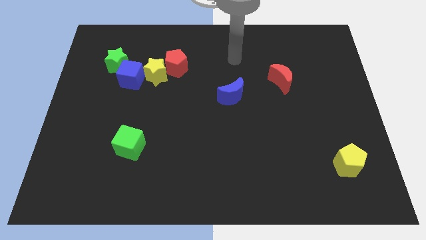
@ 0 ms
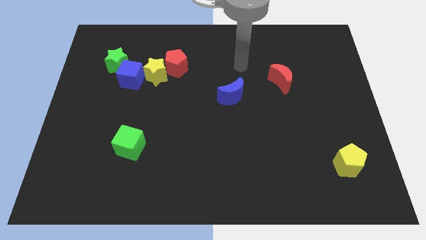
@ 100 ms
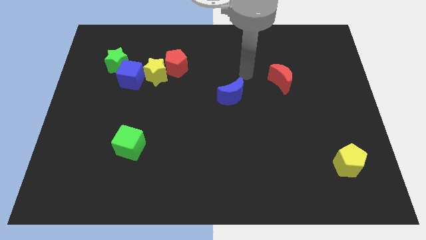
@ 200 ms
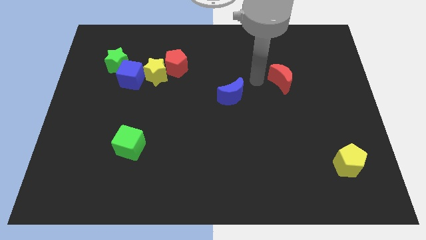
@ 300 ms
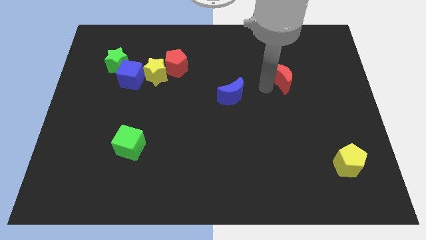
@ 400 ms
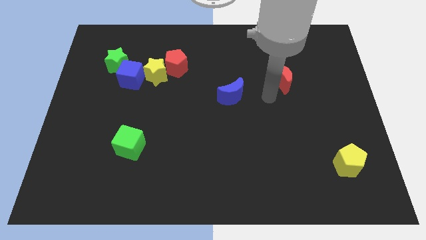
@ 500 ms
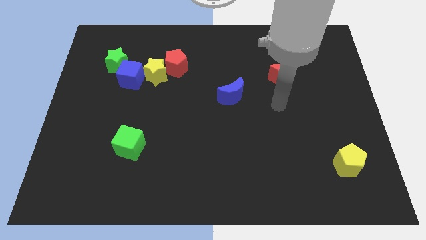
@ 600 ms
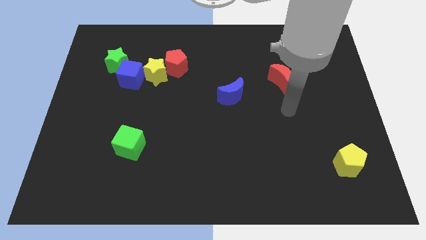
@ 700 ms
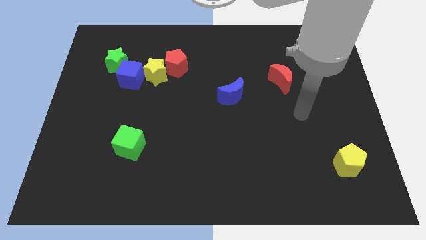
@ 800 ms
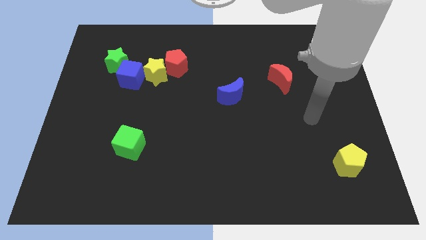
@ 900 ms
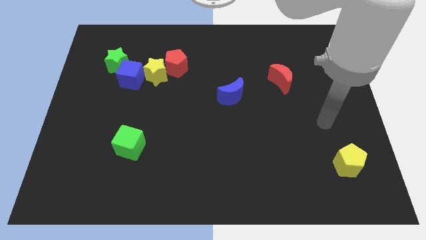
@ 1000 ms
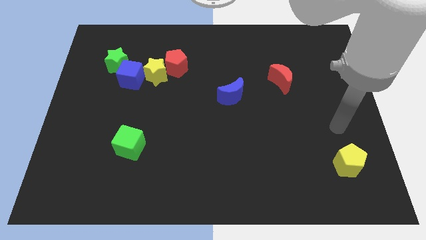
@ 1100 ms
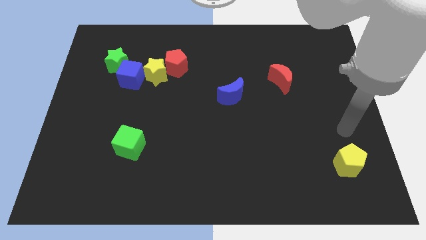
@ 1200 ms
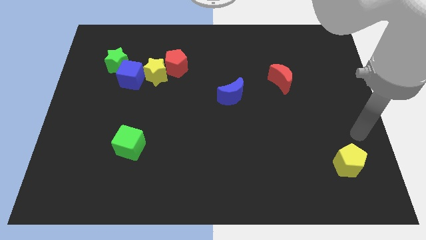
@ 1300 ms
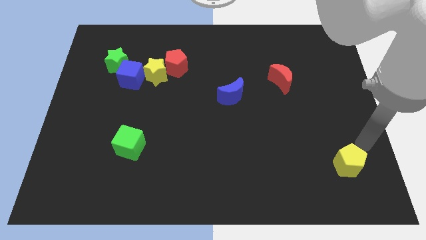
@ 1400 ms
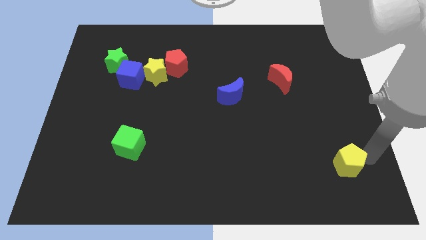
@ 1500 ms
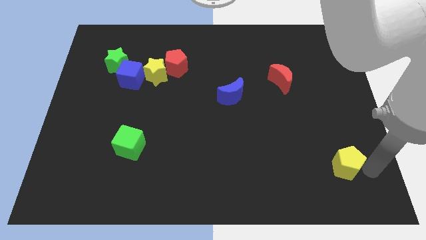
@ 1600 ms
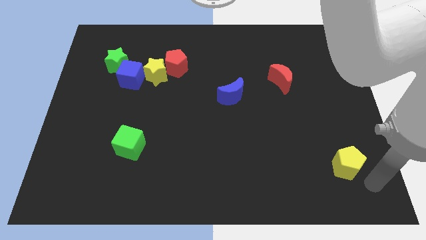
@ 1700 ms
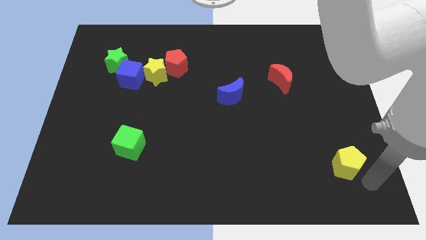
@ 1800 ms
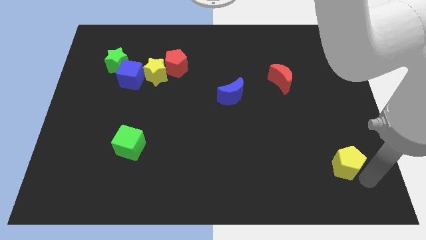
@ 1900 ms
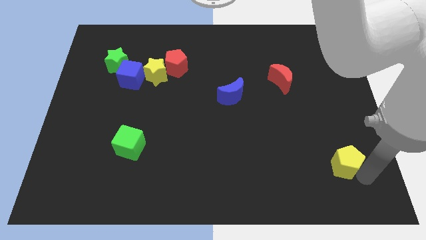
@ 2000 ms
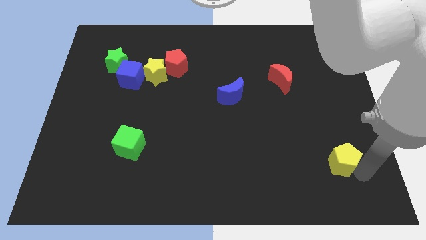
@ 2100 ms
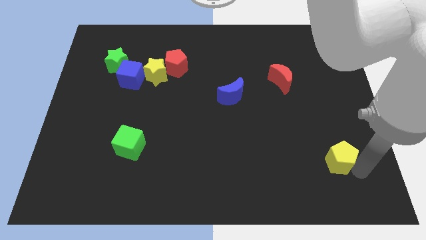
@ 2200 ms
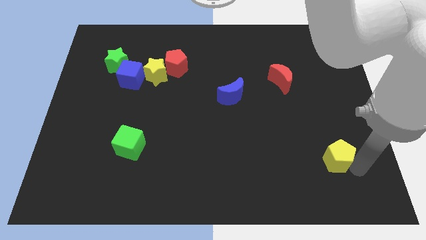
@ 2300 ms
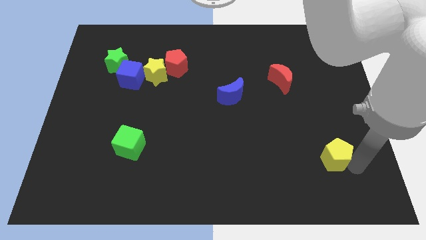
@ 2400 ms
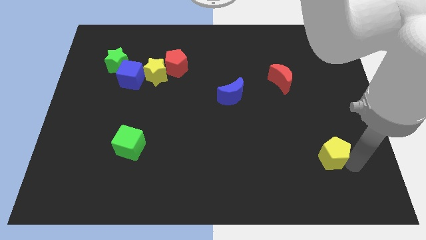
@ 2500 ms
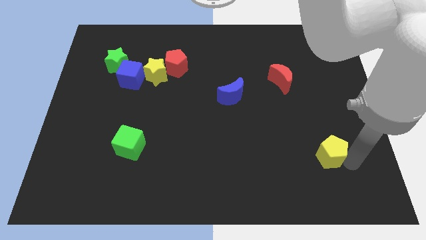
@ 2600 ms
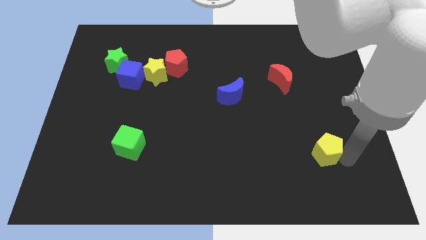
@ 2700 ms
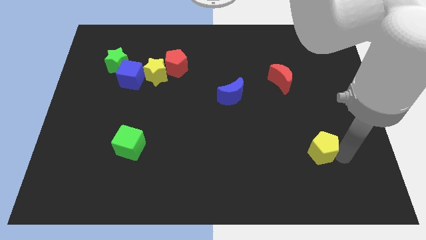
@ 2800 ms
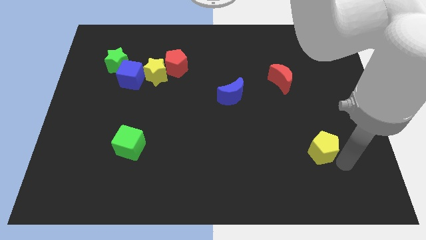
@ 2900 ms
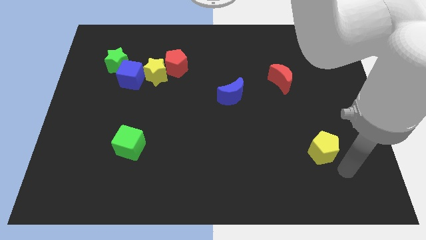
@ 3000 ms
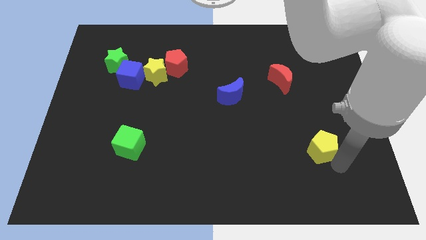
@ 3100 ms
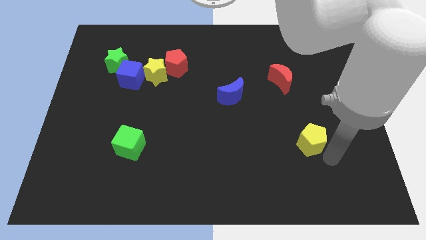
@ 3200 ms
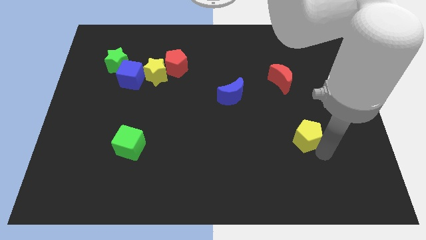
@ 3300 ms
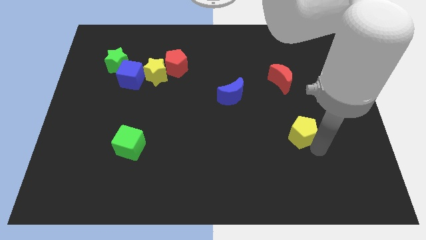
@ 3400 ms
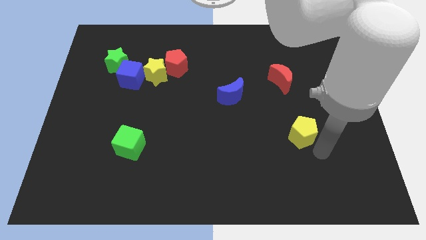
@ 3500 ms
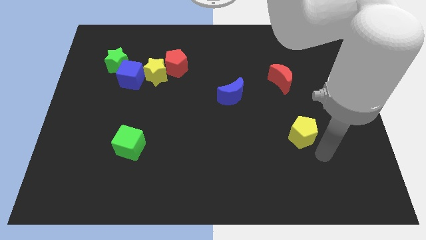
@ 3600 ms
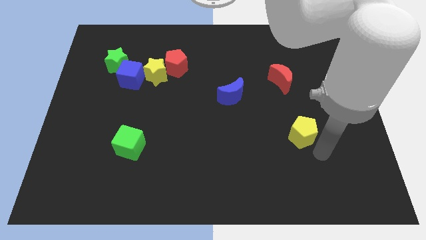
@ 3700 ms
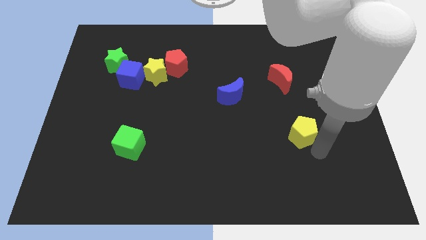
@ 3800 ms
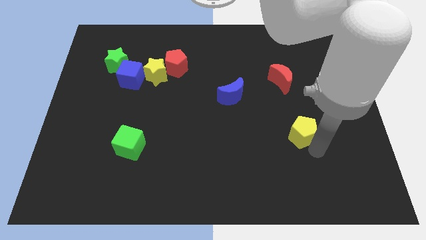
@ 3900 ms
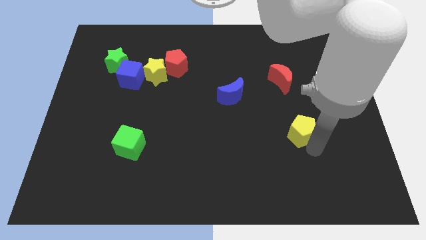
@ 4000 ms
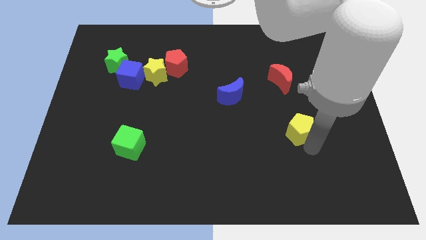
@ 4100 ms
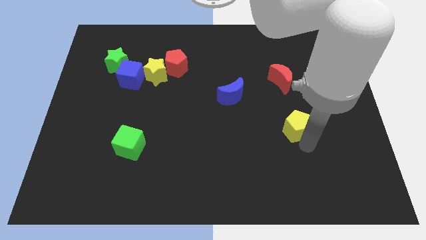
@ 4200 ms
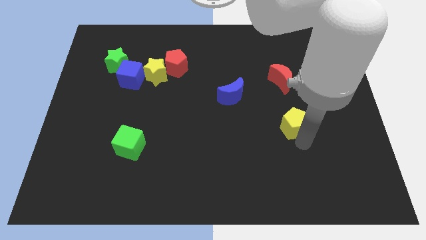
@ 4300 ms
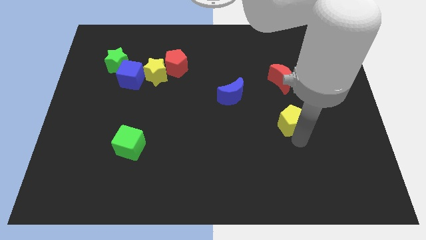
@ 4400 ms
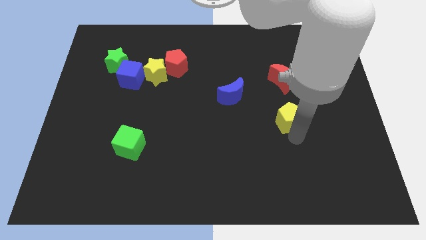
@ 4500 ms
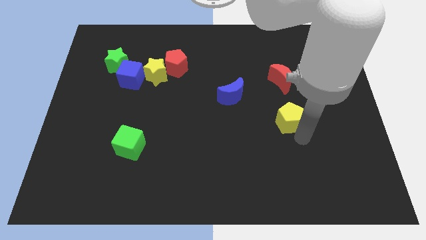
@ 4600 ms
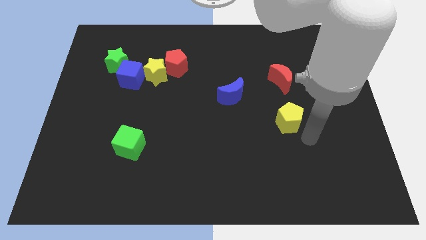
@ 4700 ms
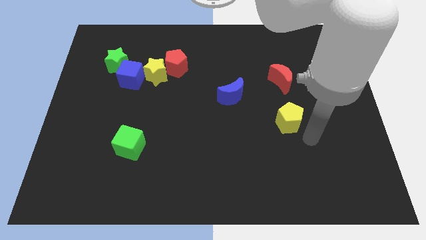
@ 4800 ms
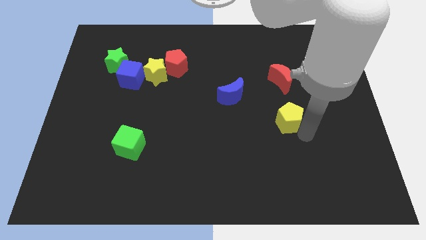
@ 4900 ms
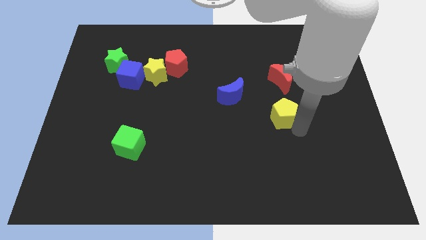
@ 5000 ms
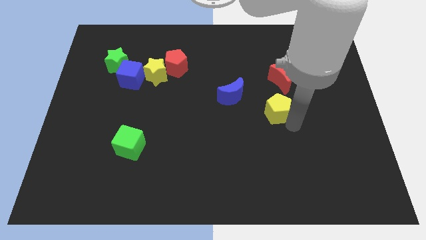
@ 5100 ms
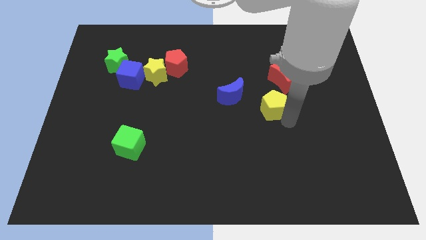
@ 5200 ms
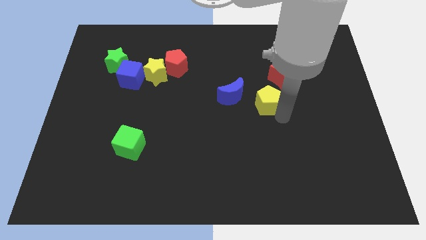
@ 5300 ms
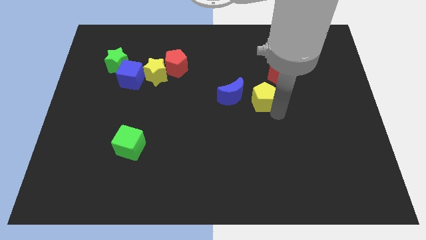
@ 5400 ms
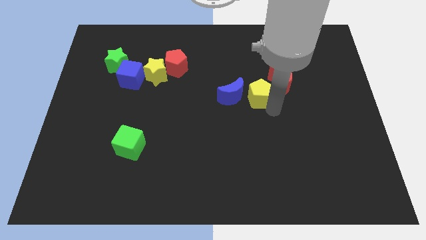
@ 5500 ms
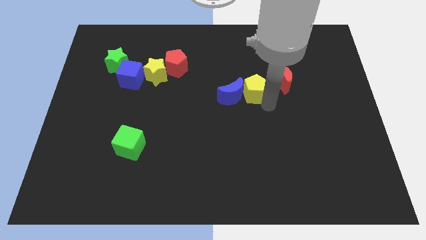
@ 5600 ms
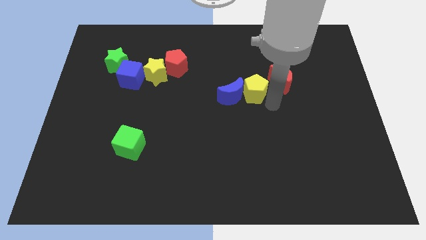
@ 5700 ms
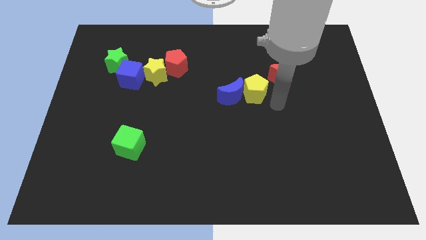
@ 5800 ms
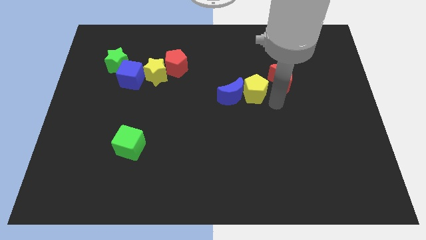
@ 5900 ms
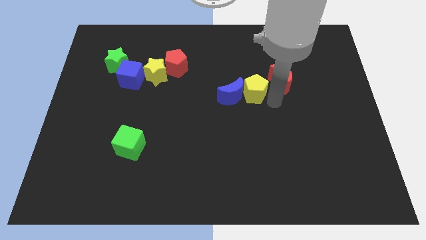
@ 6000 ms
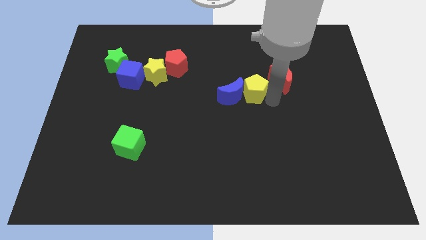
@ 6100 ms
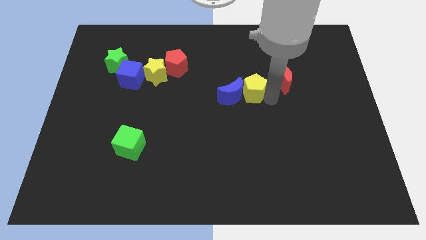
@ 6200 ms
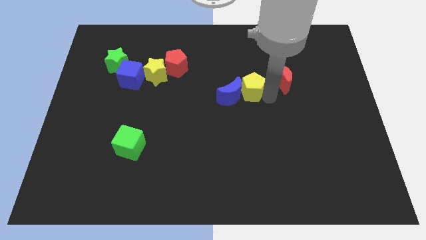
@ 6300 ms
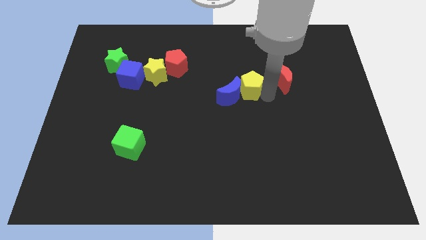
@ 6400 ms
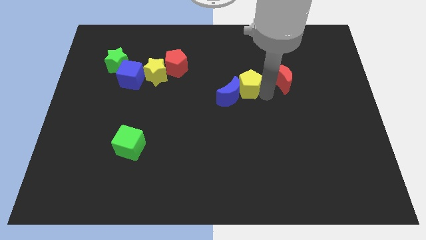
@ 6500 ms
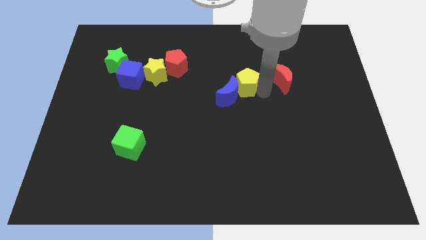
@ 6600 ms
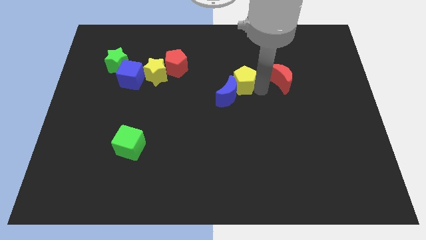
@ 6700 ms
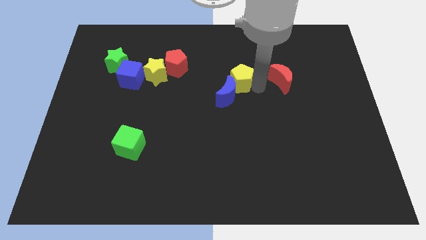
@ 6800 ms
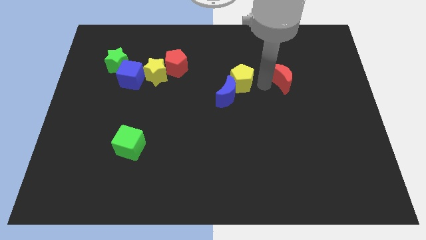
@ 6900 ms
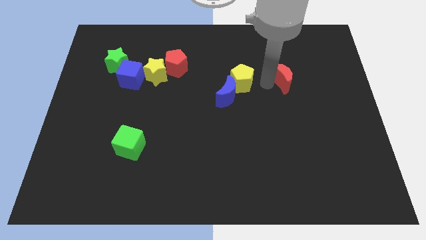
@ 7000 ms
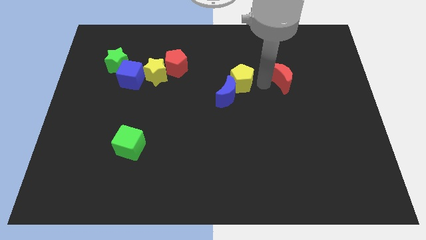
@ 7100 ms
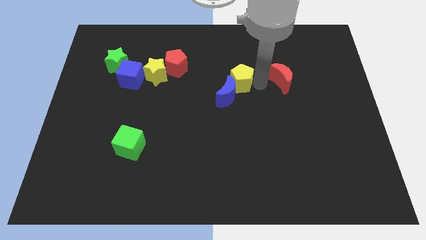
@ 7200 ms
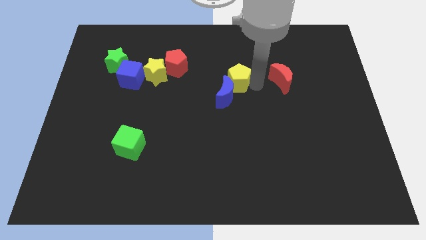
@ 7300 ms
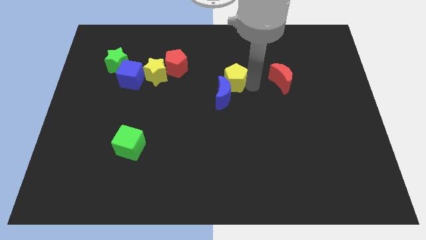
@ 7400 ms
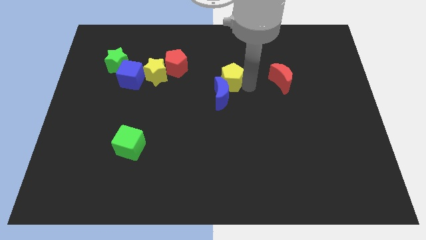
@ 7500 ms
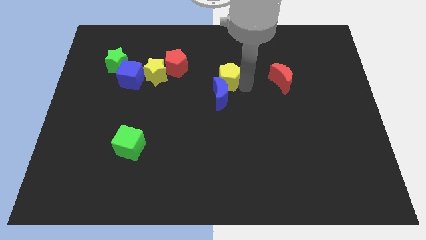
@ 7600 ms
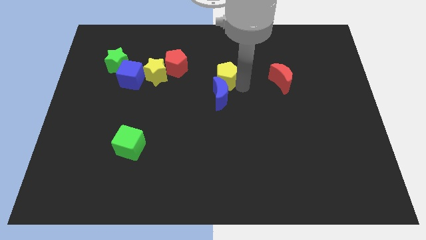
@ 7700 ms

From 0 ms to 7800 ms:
slide the yellow pentagon to the top left side of the blue moon
